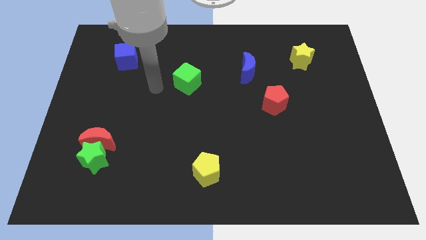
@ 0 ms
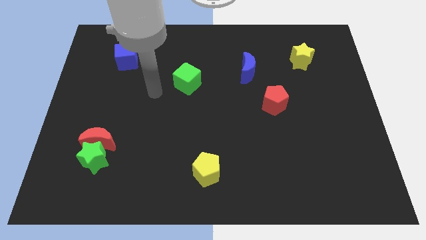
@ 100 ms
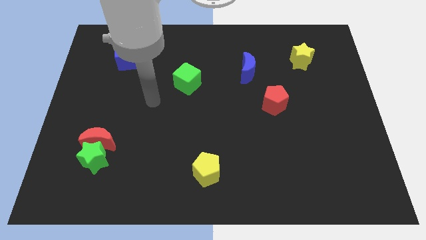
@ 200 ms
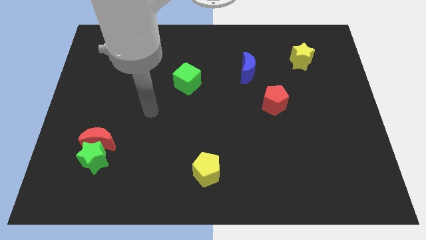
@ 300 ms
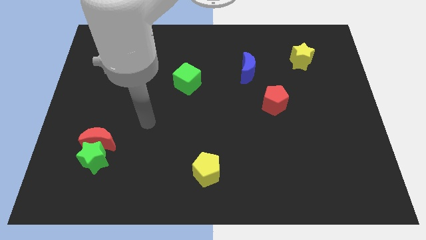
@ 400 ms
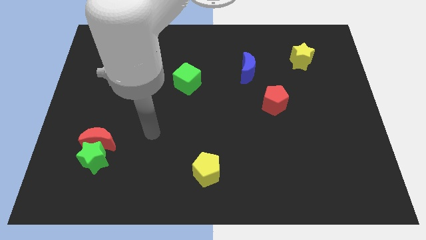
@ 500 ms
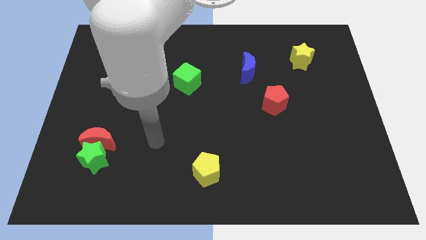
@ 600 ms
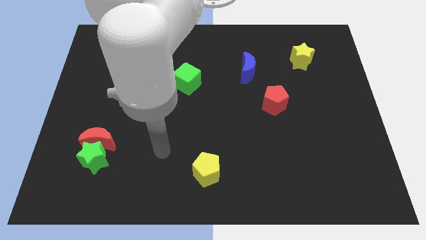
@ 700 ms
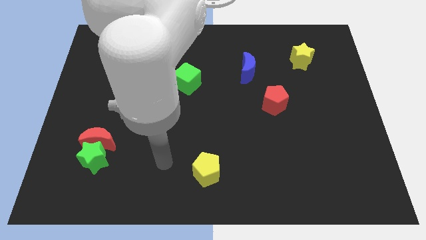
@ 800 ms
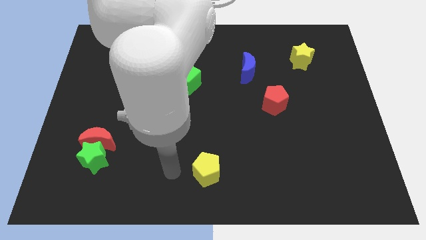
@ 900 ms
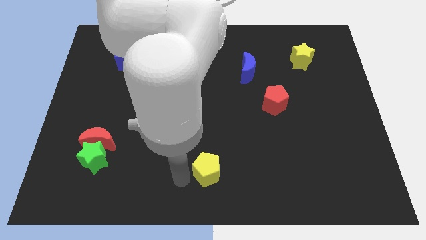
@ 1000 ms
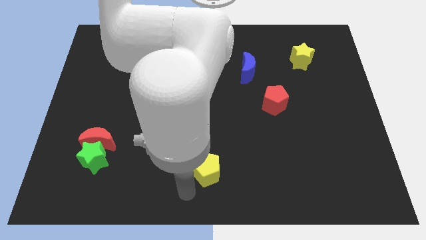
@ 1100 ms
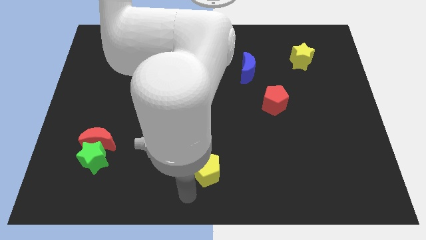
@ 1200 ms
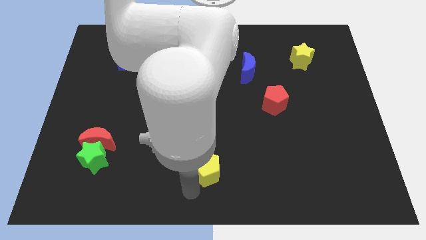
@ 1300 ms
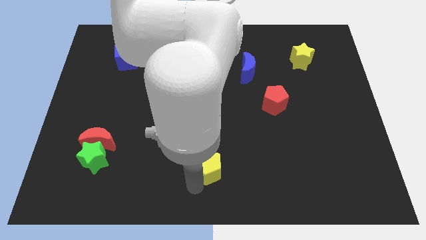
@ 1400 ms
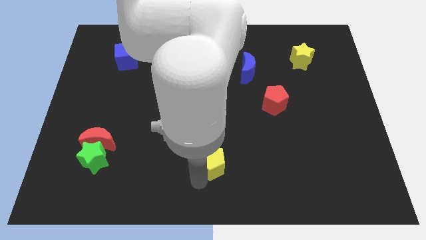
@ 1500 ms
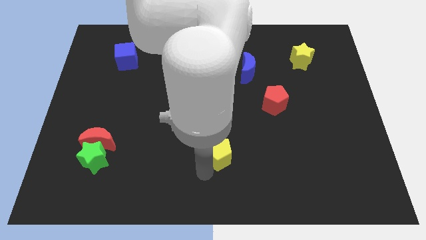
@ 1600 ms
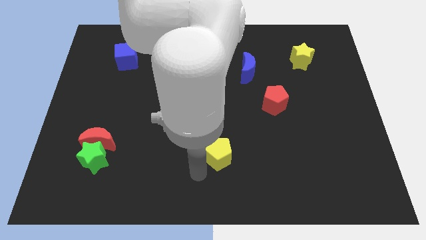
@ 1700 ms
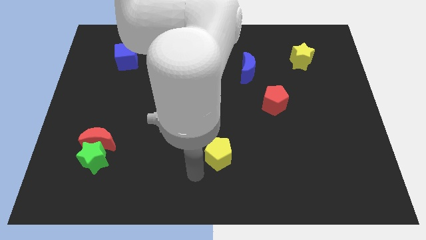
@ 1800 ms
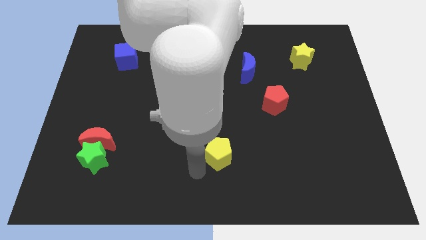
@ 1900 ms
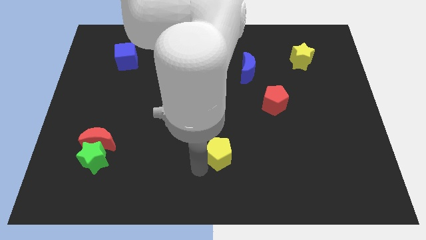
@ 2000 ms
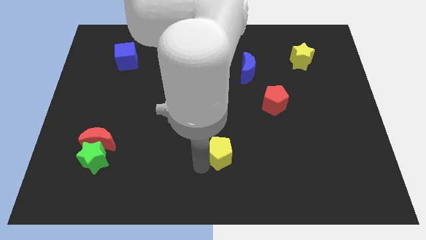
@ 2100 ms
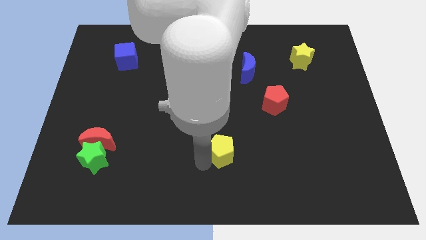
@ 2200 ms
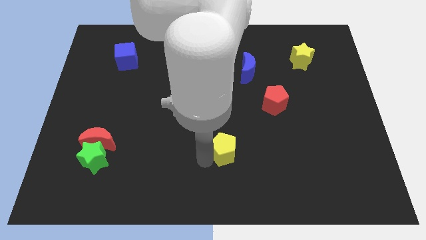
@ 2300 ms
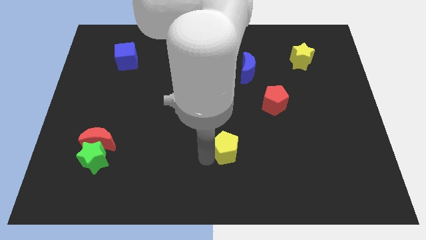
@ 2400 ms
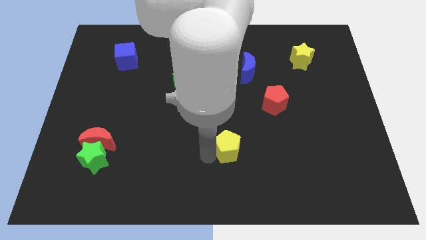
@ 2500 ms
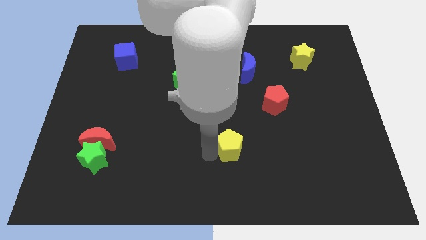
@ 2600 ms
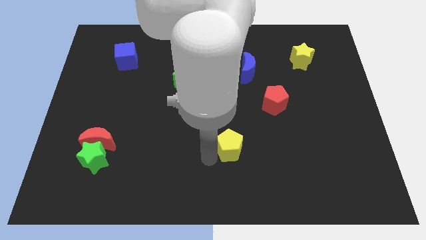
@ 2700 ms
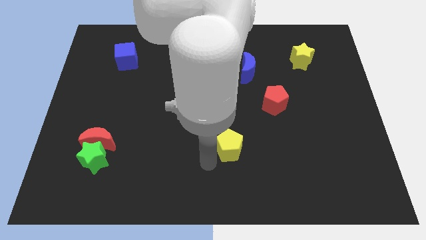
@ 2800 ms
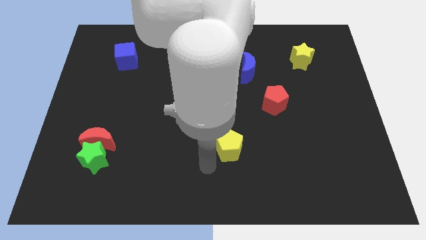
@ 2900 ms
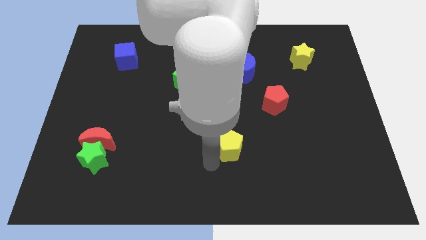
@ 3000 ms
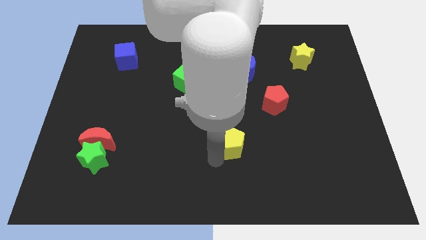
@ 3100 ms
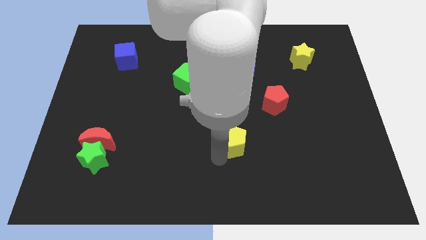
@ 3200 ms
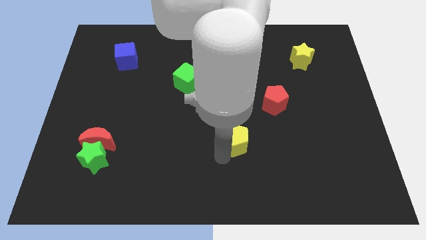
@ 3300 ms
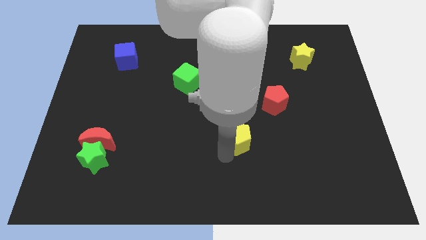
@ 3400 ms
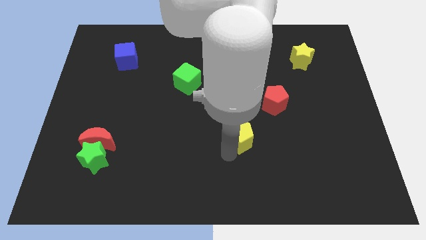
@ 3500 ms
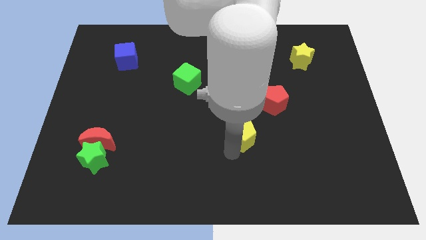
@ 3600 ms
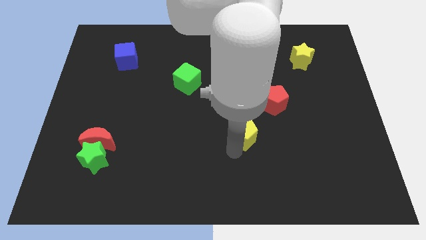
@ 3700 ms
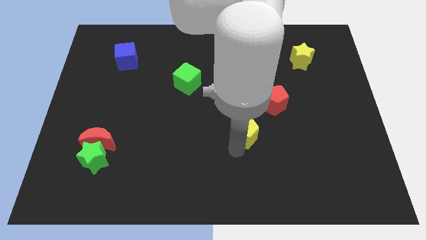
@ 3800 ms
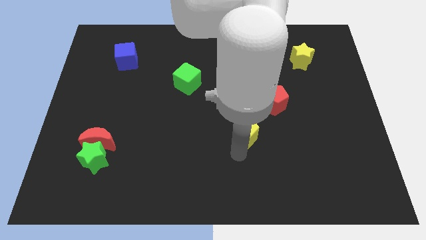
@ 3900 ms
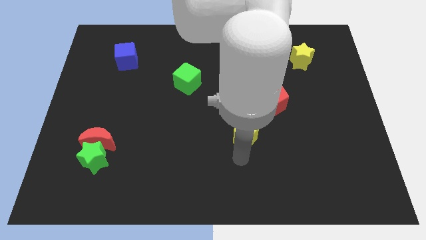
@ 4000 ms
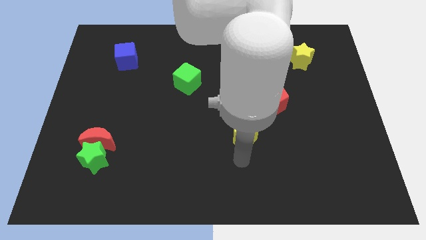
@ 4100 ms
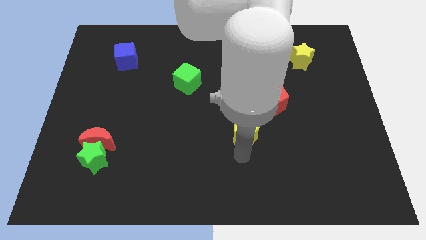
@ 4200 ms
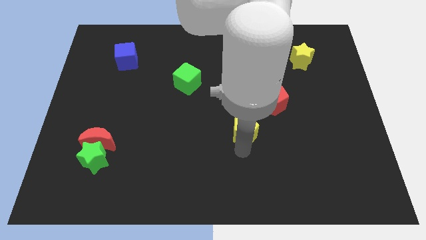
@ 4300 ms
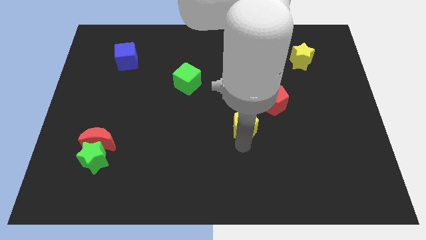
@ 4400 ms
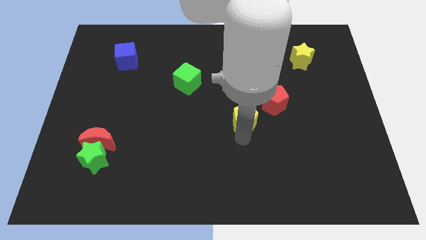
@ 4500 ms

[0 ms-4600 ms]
slide the yellow pentagon to the bottom of the blue moon

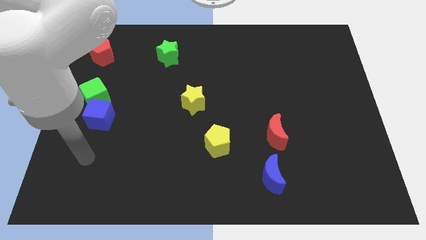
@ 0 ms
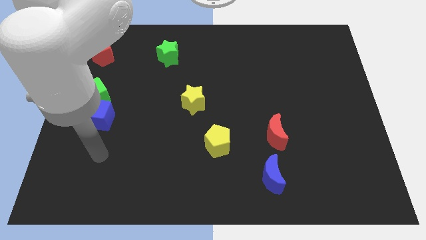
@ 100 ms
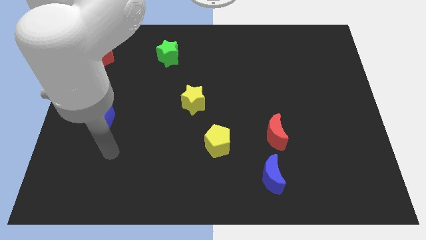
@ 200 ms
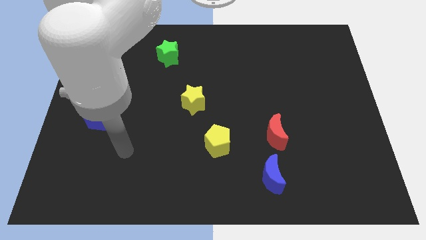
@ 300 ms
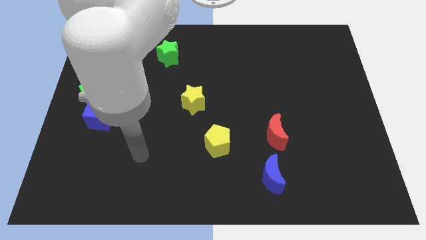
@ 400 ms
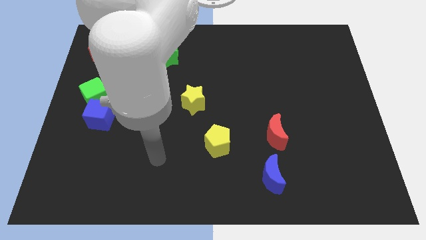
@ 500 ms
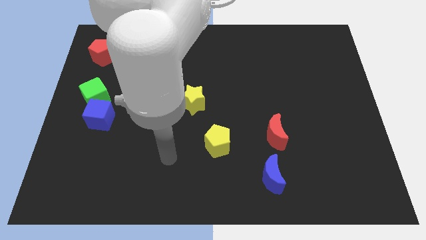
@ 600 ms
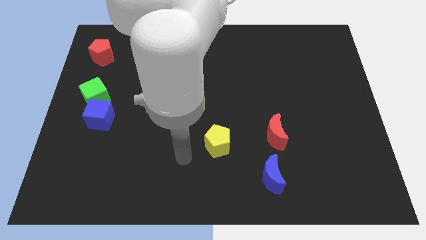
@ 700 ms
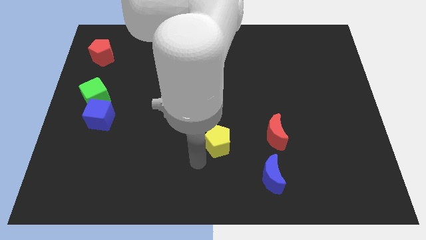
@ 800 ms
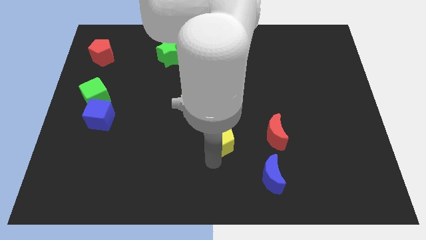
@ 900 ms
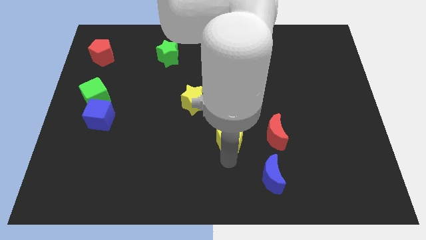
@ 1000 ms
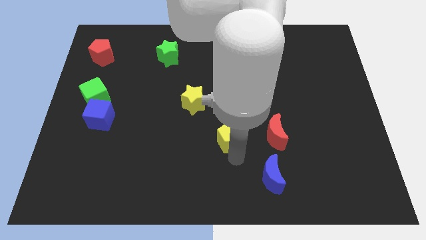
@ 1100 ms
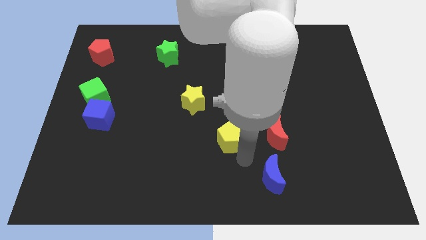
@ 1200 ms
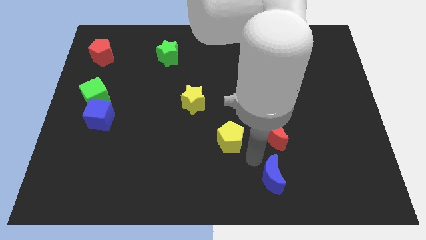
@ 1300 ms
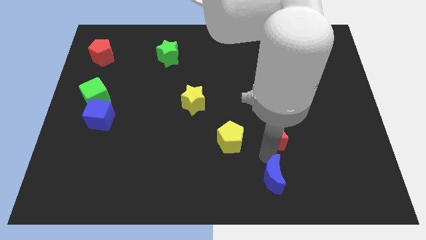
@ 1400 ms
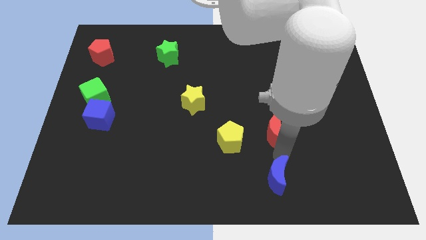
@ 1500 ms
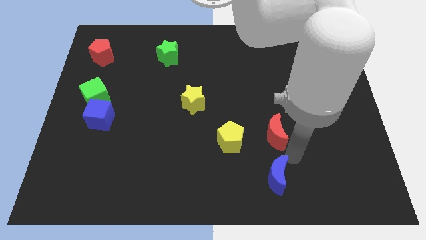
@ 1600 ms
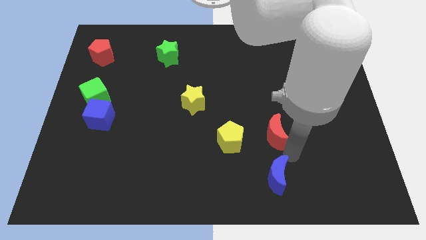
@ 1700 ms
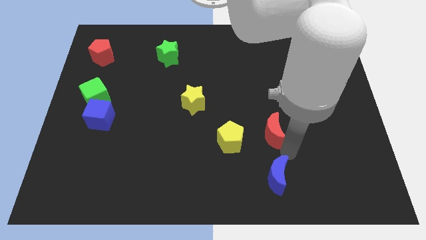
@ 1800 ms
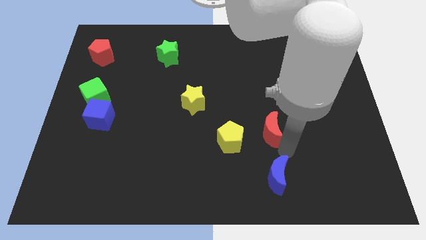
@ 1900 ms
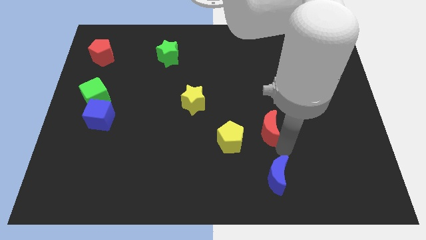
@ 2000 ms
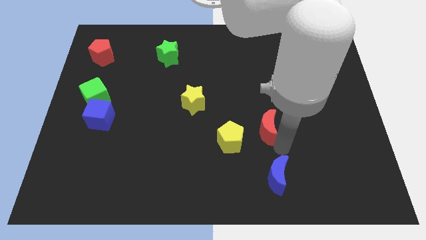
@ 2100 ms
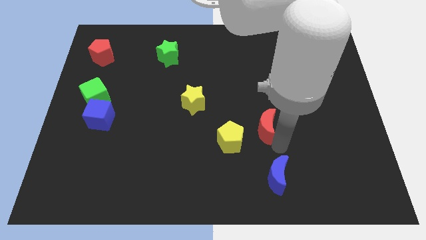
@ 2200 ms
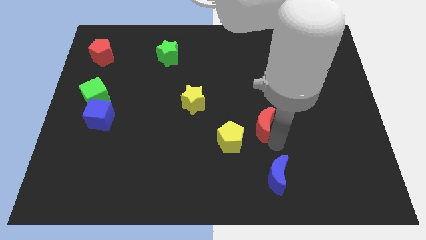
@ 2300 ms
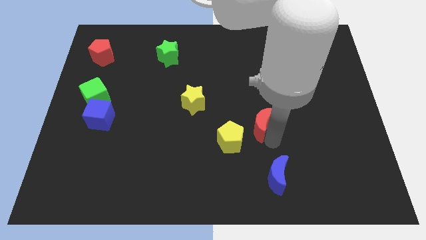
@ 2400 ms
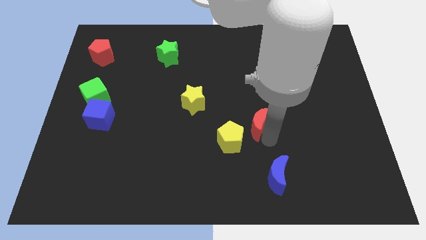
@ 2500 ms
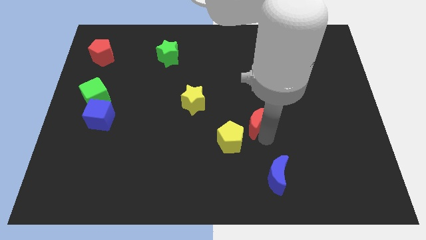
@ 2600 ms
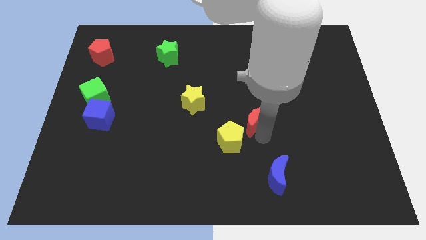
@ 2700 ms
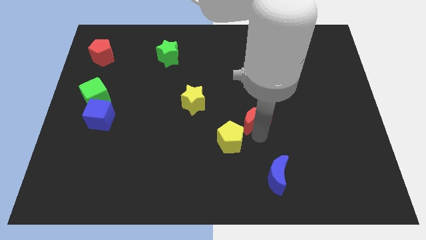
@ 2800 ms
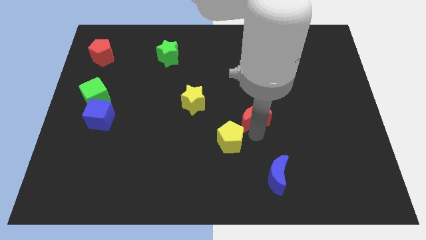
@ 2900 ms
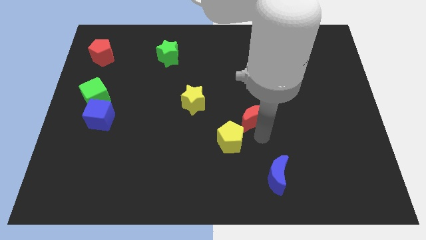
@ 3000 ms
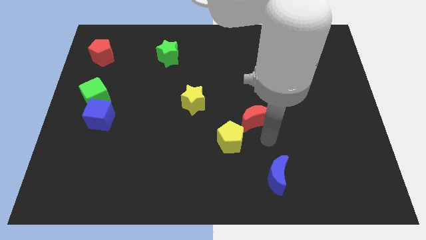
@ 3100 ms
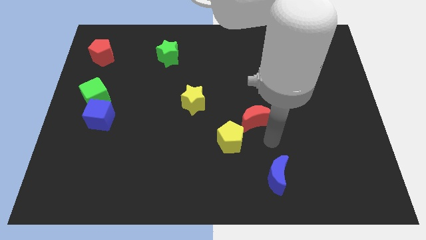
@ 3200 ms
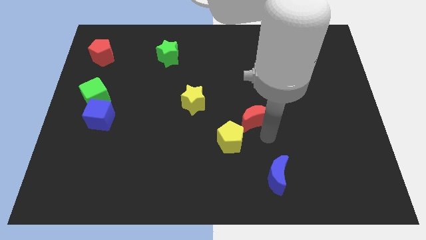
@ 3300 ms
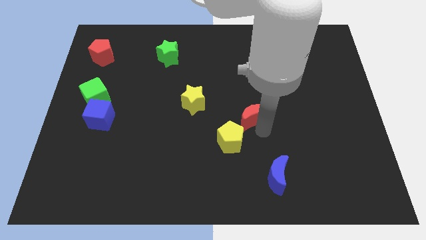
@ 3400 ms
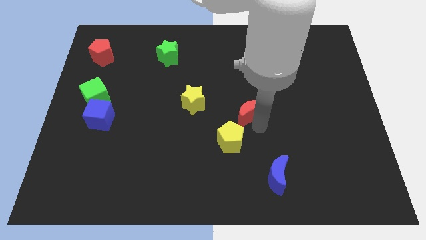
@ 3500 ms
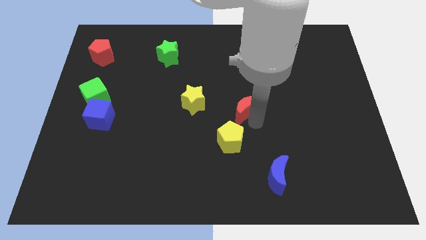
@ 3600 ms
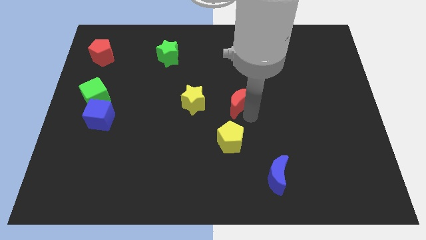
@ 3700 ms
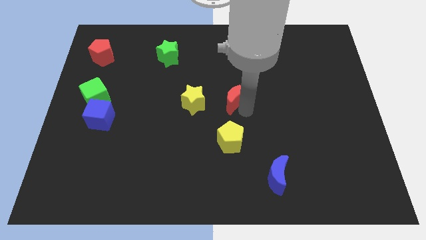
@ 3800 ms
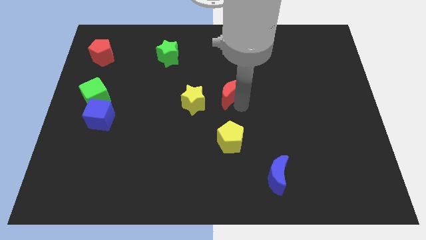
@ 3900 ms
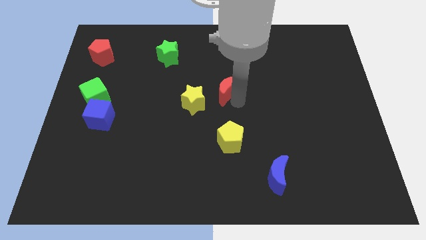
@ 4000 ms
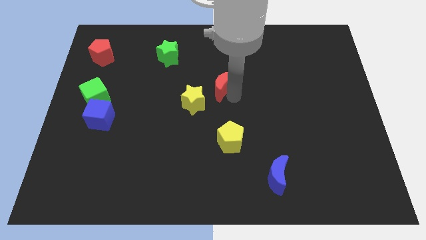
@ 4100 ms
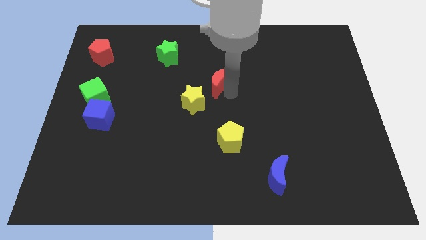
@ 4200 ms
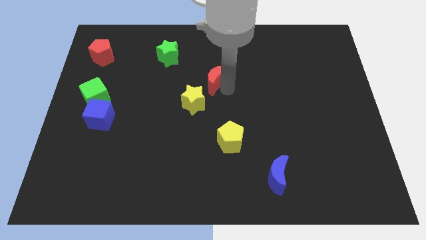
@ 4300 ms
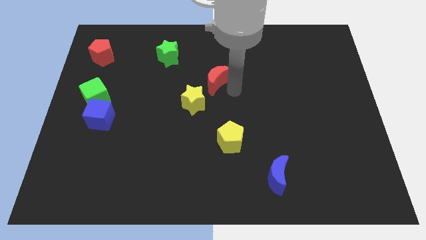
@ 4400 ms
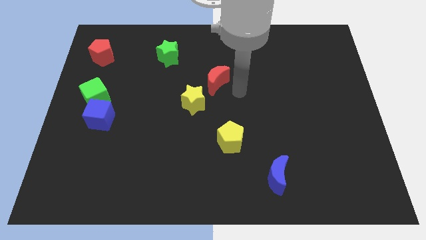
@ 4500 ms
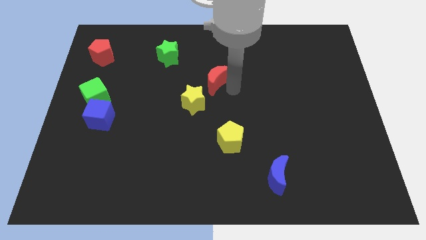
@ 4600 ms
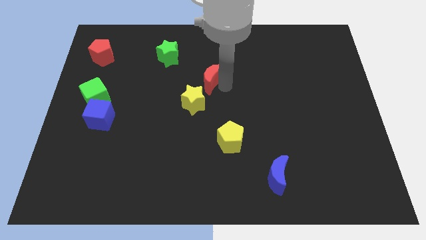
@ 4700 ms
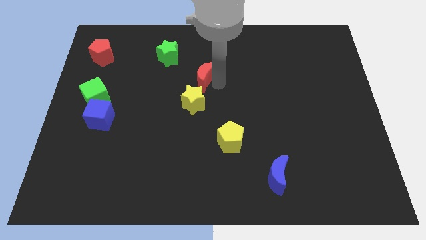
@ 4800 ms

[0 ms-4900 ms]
put the red moon to the bottom right side of the green star
